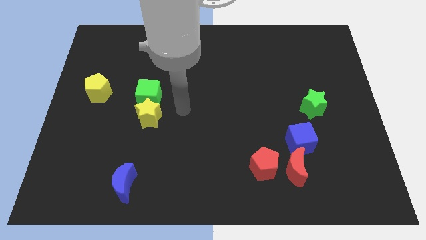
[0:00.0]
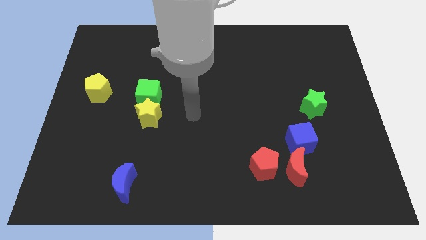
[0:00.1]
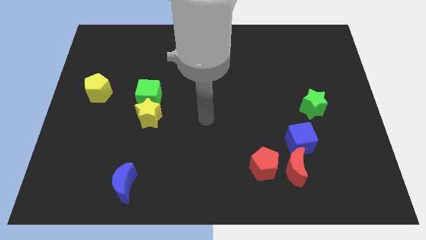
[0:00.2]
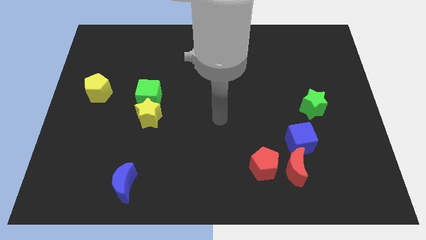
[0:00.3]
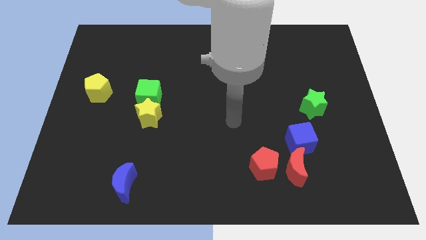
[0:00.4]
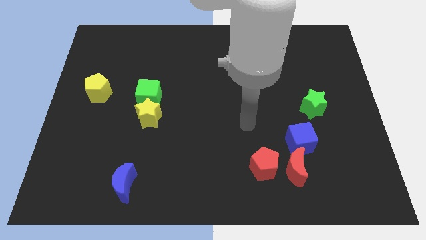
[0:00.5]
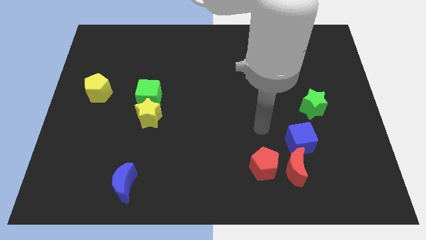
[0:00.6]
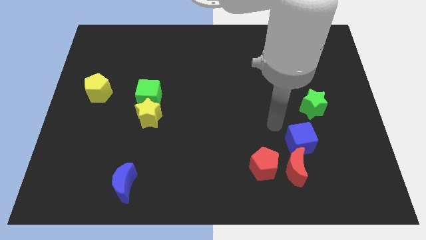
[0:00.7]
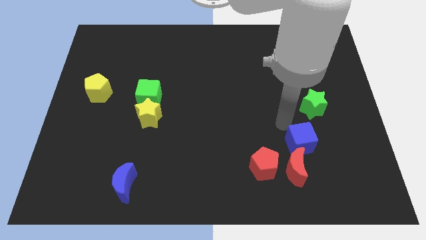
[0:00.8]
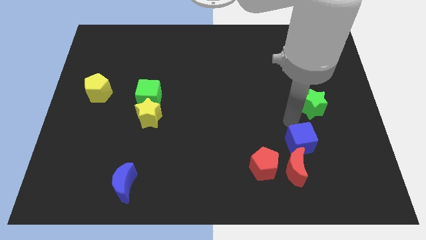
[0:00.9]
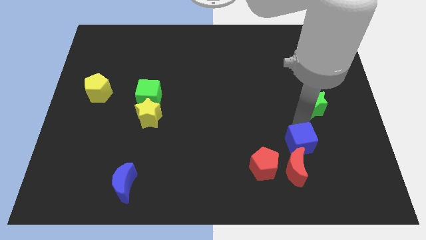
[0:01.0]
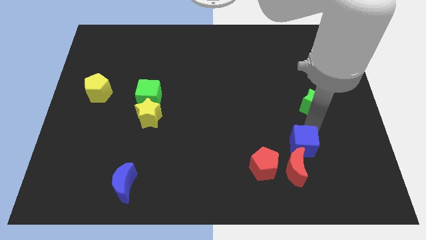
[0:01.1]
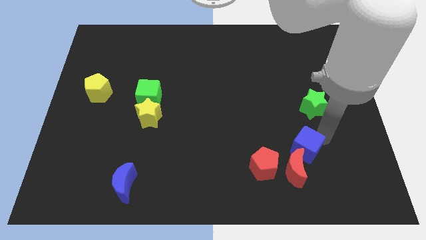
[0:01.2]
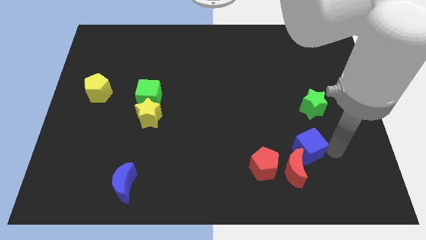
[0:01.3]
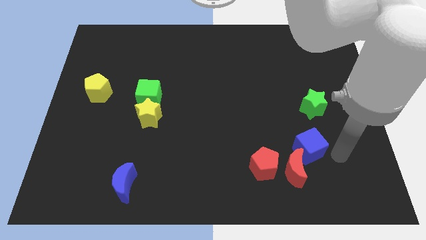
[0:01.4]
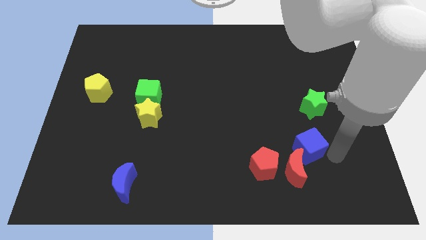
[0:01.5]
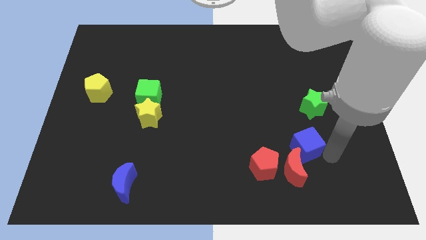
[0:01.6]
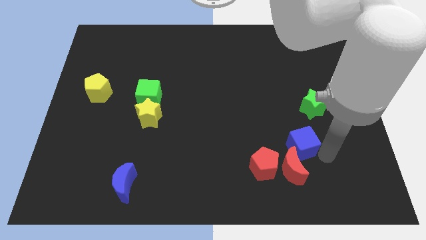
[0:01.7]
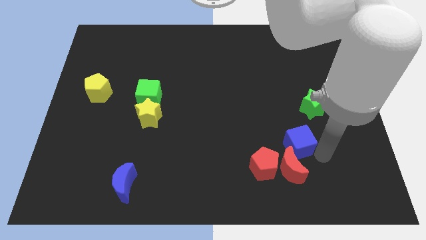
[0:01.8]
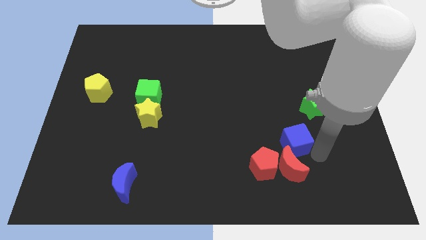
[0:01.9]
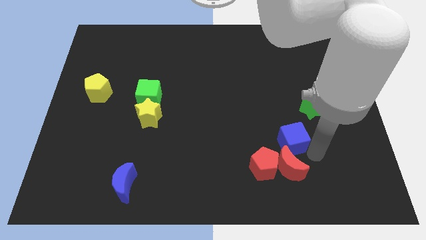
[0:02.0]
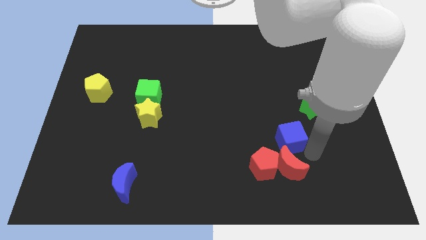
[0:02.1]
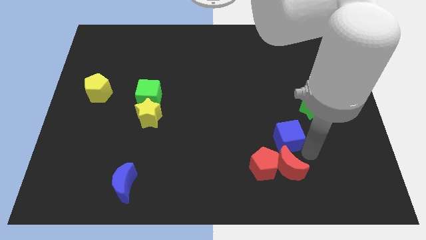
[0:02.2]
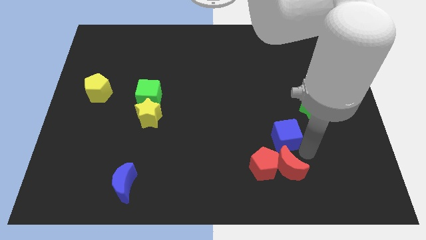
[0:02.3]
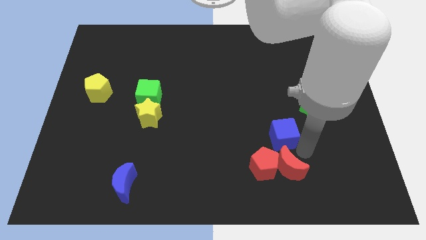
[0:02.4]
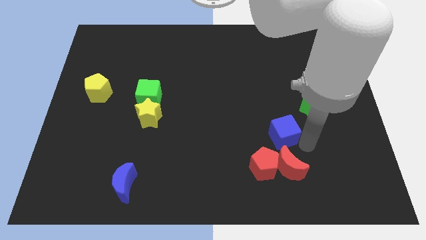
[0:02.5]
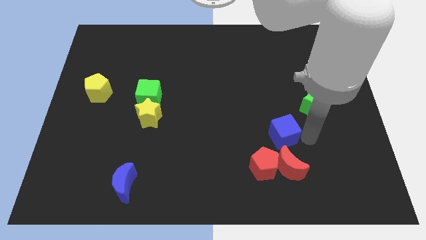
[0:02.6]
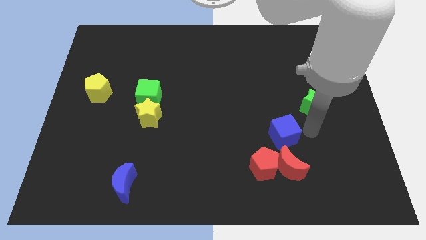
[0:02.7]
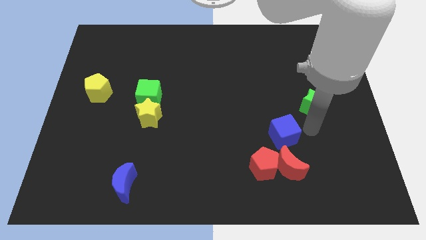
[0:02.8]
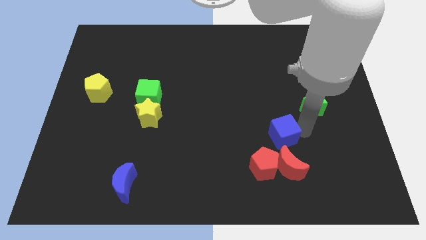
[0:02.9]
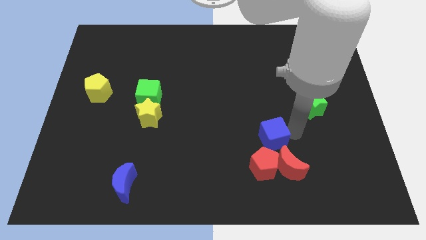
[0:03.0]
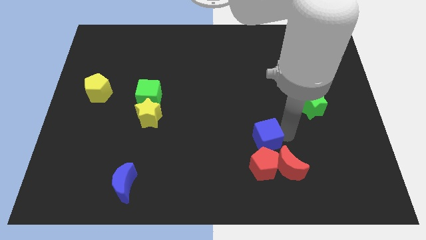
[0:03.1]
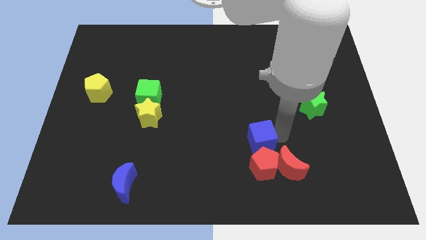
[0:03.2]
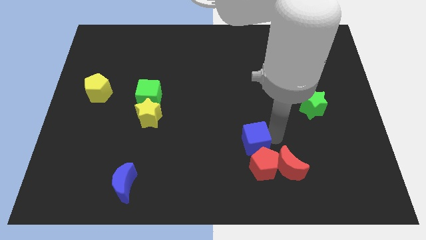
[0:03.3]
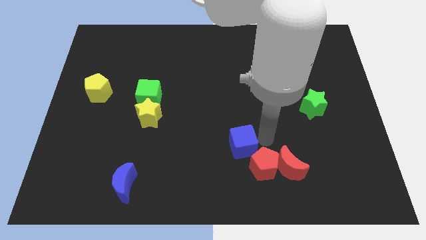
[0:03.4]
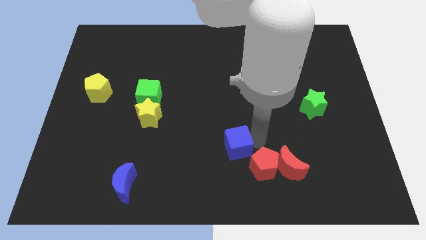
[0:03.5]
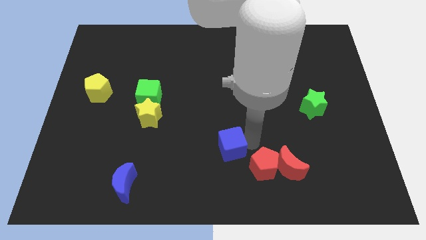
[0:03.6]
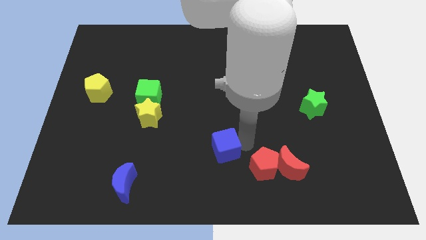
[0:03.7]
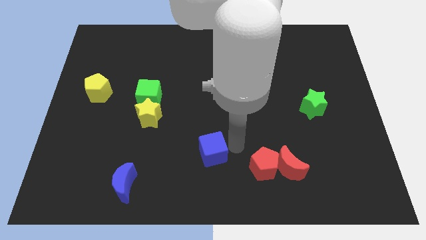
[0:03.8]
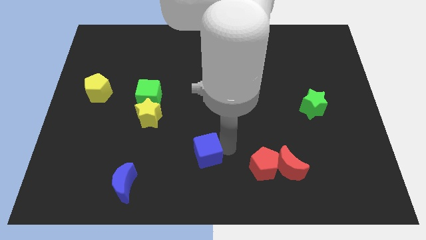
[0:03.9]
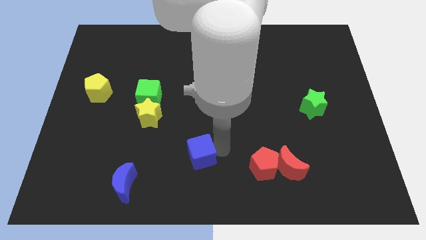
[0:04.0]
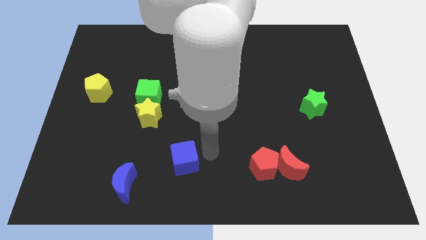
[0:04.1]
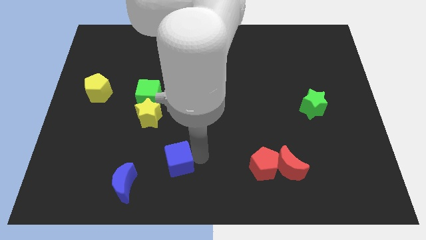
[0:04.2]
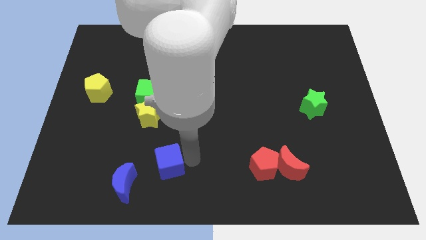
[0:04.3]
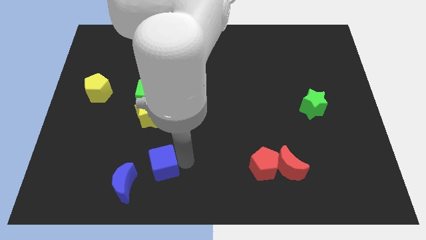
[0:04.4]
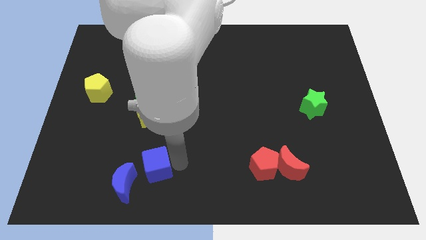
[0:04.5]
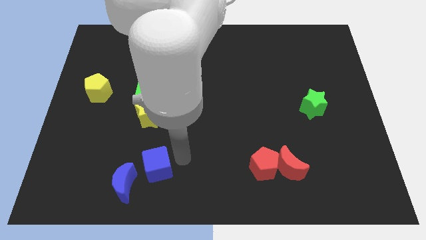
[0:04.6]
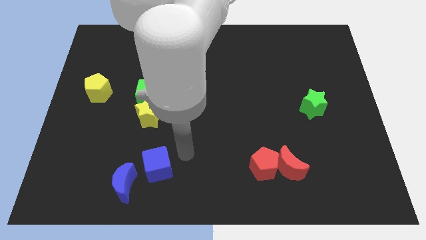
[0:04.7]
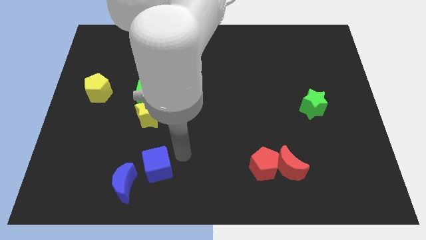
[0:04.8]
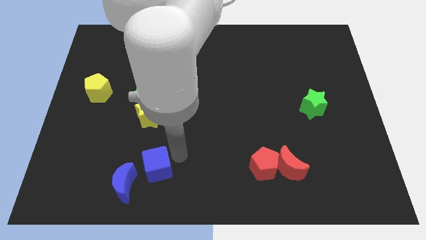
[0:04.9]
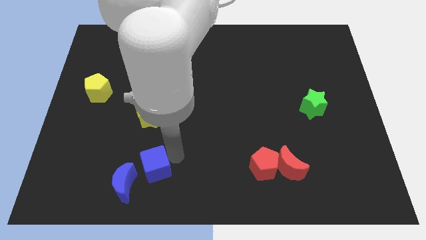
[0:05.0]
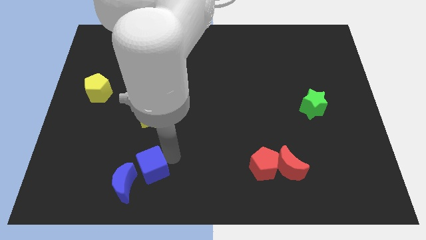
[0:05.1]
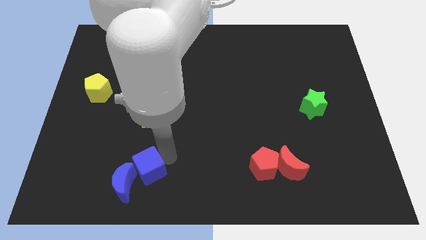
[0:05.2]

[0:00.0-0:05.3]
slide the blue cube towards the blue moon

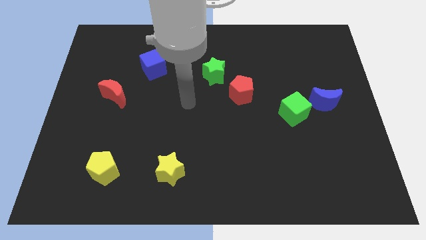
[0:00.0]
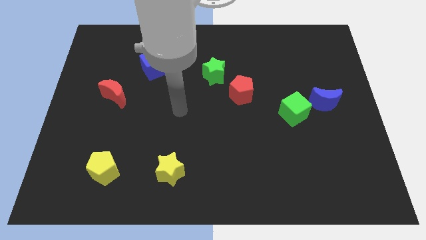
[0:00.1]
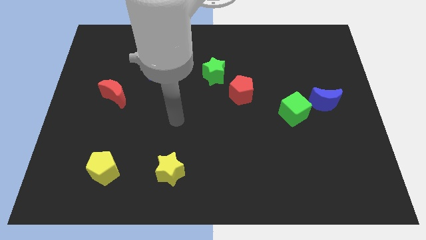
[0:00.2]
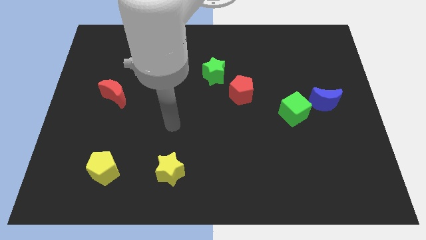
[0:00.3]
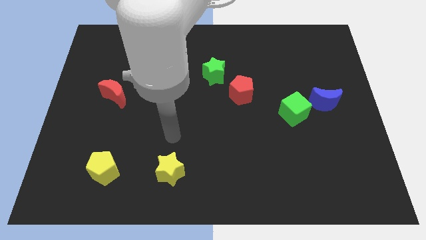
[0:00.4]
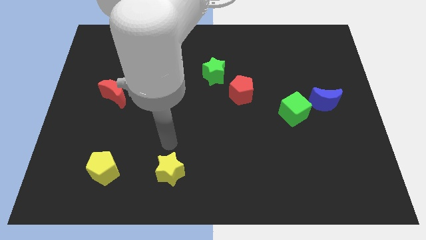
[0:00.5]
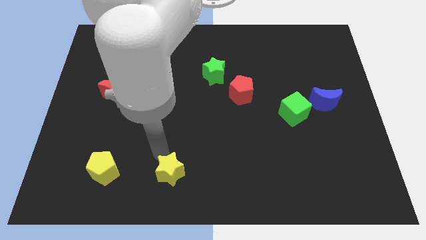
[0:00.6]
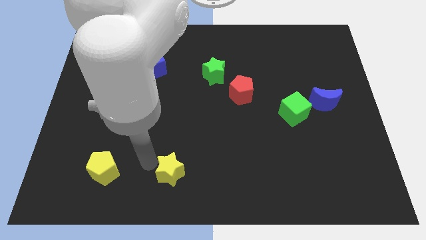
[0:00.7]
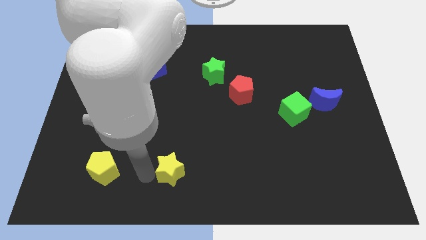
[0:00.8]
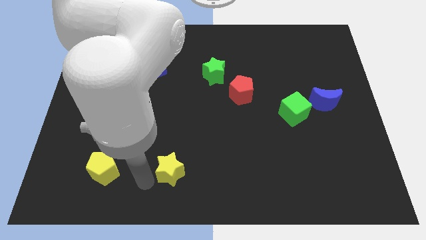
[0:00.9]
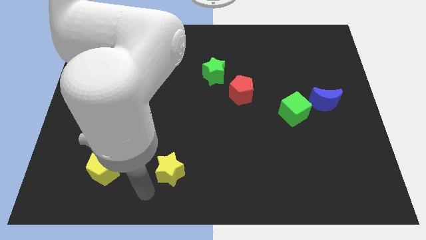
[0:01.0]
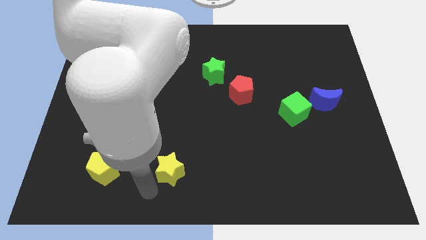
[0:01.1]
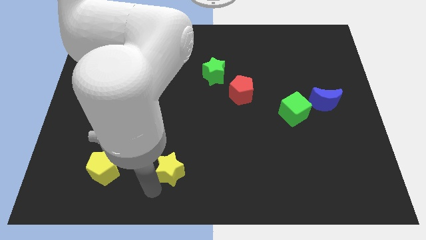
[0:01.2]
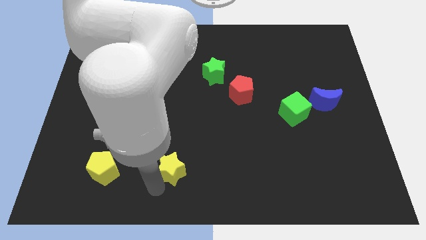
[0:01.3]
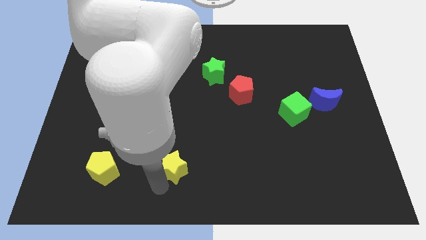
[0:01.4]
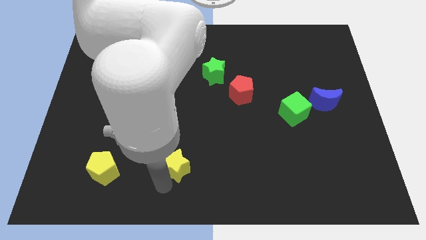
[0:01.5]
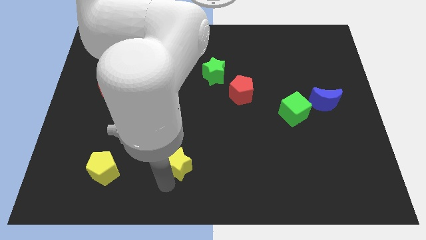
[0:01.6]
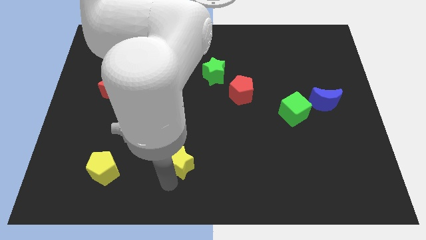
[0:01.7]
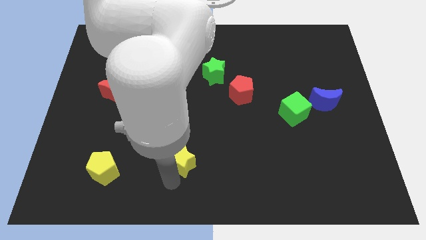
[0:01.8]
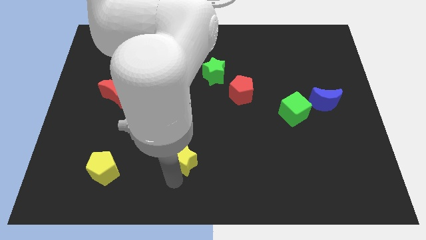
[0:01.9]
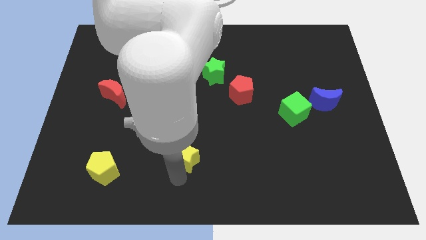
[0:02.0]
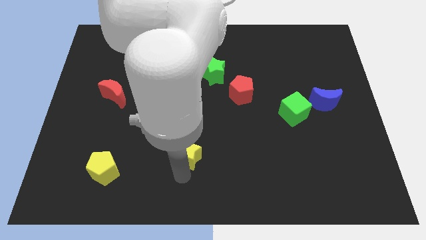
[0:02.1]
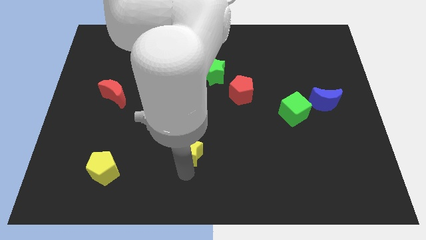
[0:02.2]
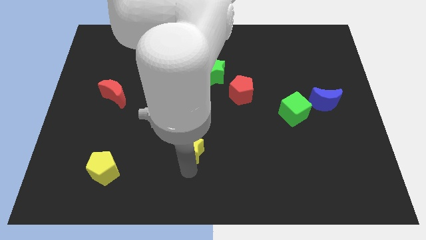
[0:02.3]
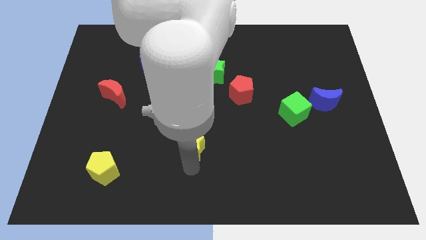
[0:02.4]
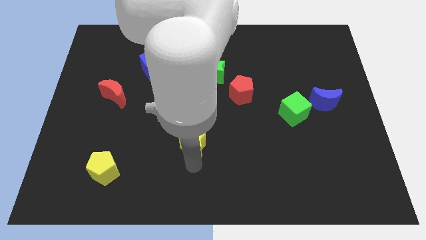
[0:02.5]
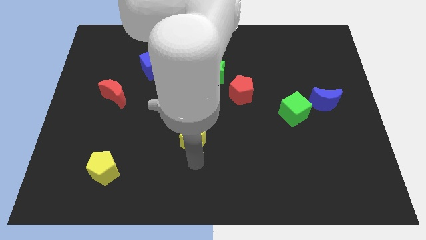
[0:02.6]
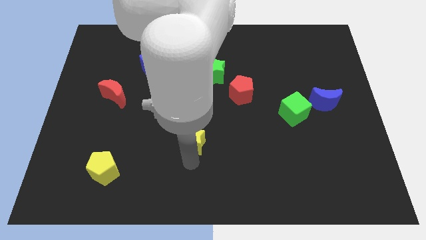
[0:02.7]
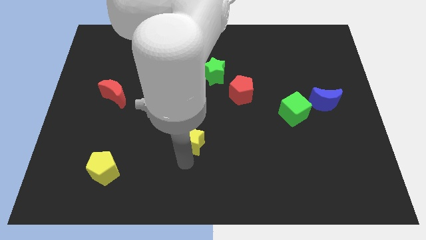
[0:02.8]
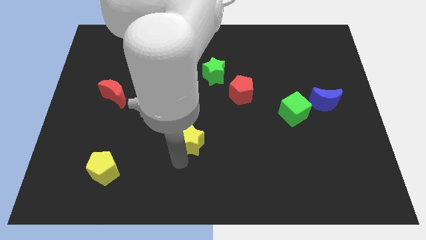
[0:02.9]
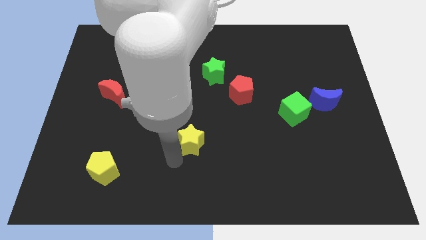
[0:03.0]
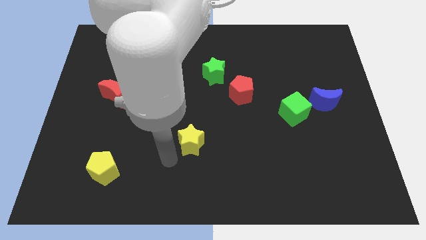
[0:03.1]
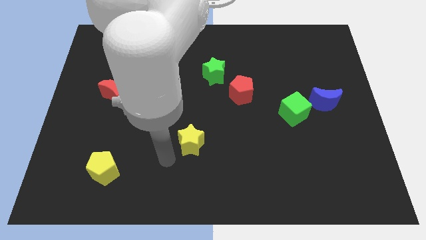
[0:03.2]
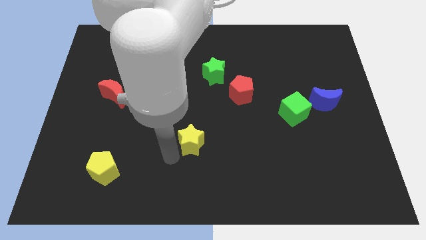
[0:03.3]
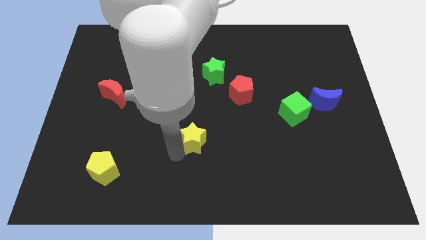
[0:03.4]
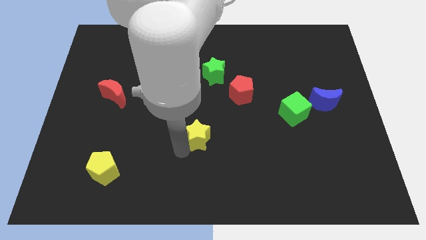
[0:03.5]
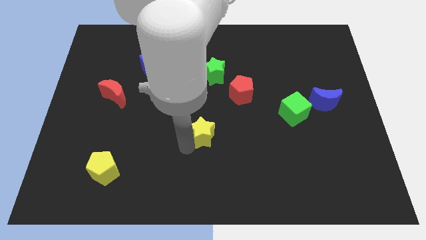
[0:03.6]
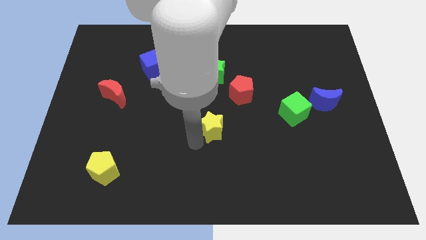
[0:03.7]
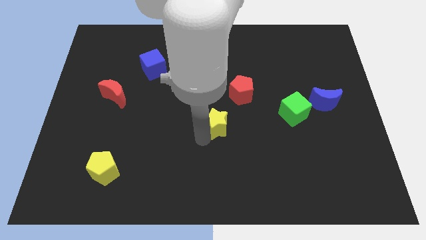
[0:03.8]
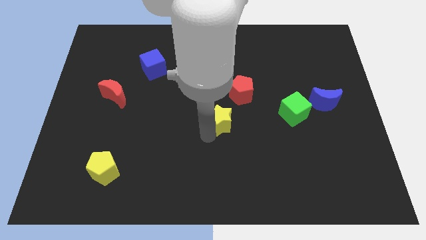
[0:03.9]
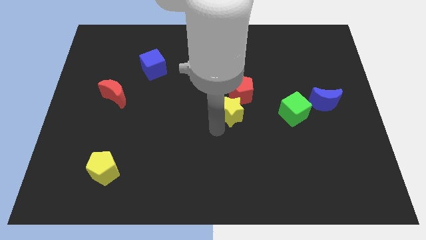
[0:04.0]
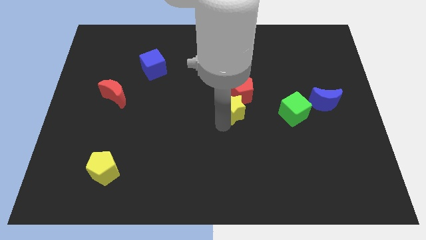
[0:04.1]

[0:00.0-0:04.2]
slide the yellow star towards the red pentagon
